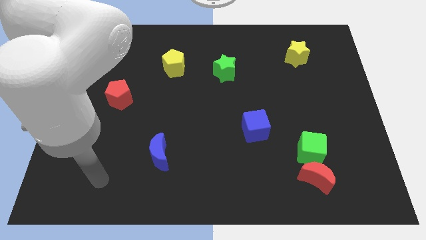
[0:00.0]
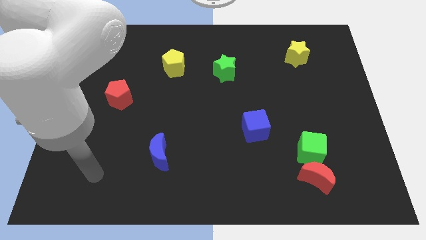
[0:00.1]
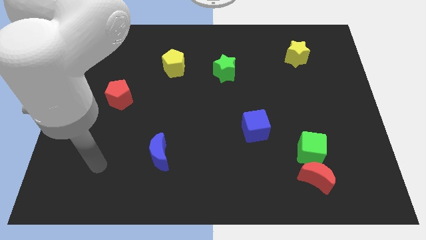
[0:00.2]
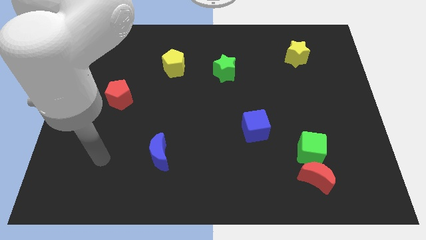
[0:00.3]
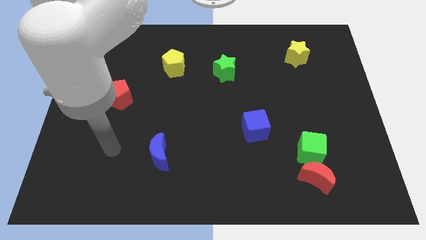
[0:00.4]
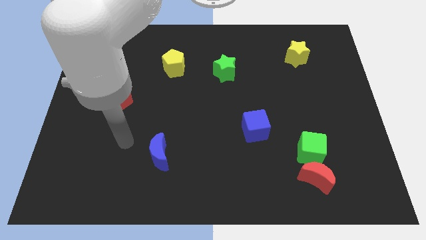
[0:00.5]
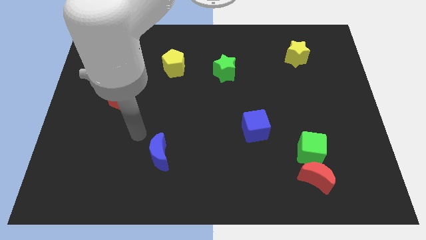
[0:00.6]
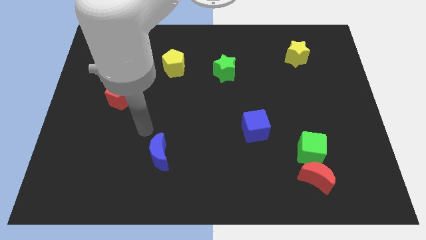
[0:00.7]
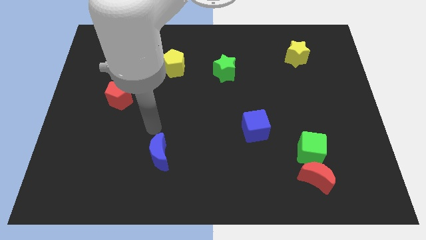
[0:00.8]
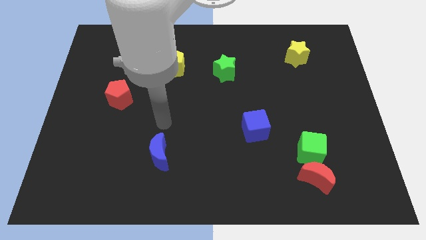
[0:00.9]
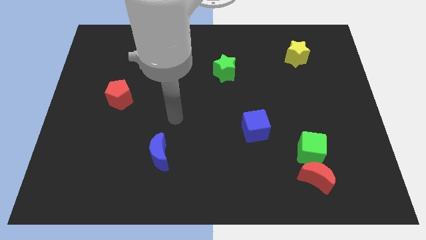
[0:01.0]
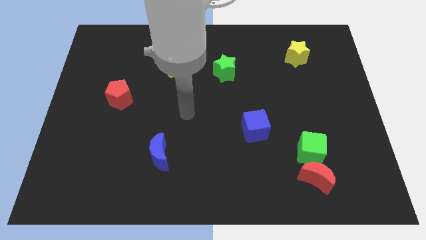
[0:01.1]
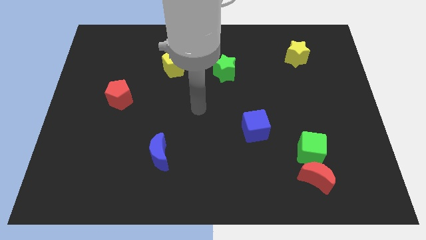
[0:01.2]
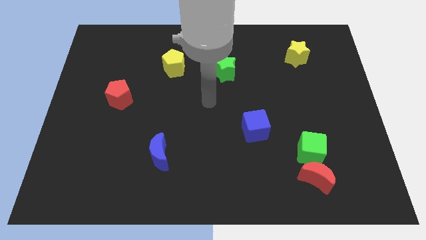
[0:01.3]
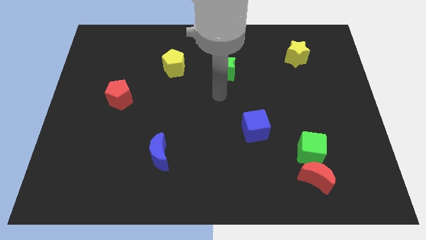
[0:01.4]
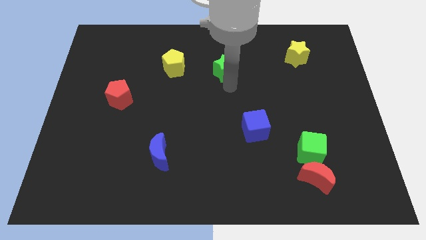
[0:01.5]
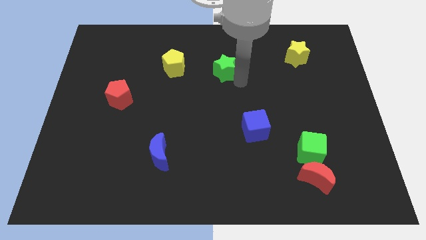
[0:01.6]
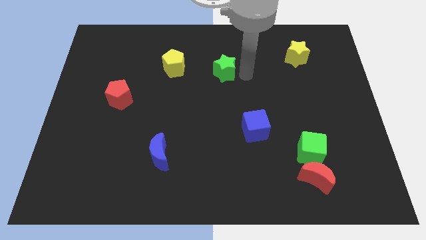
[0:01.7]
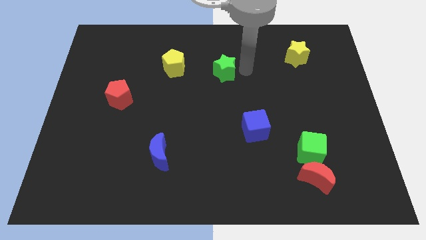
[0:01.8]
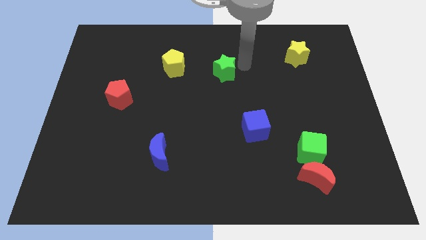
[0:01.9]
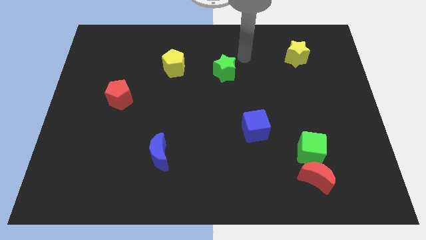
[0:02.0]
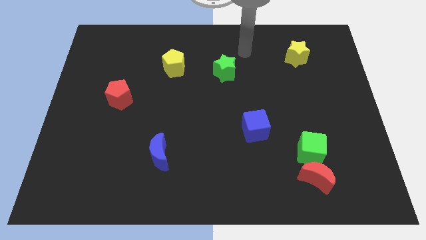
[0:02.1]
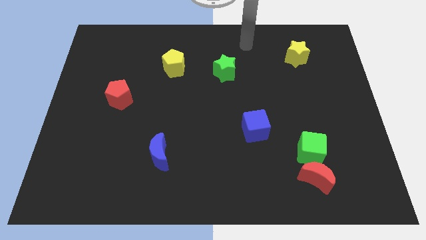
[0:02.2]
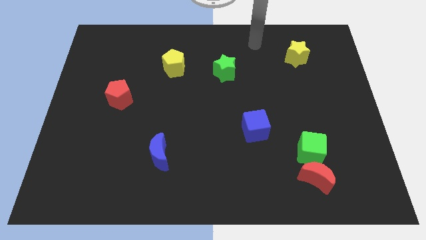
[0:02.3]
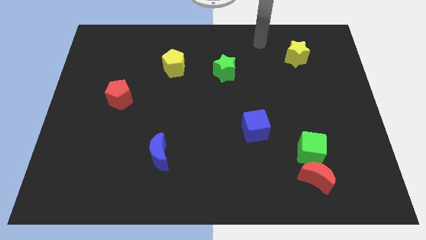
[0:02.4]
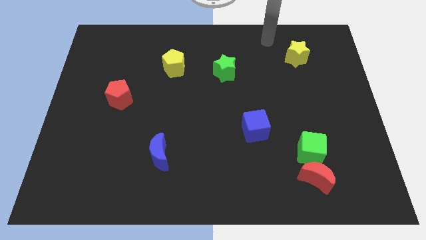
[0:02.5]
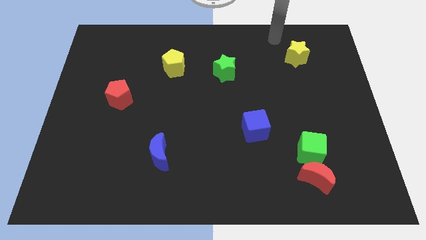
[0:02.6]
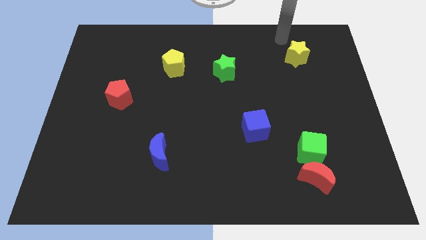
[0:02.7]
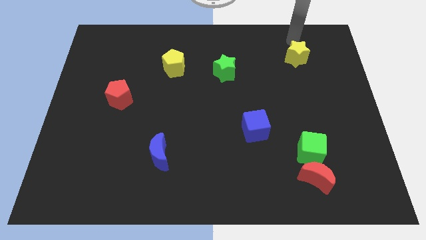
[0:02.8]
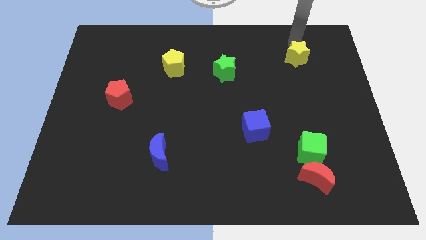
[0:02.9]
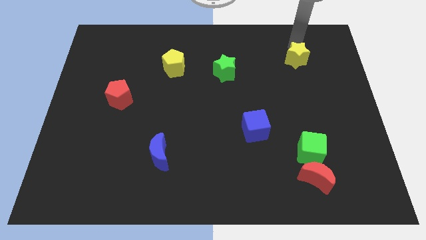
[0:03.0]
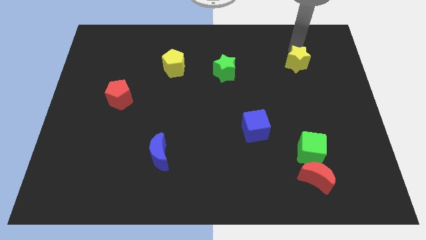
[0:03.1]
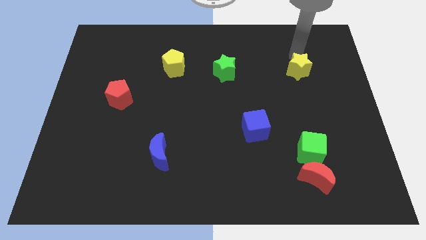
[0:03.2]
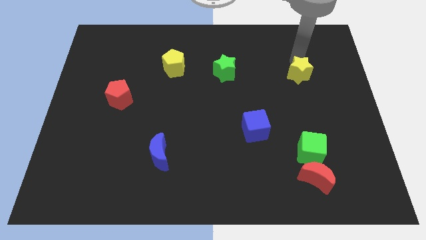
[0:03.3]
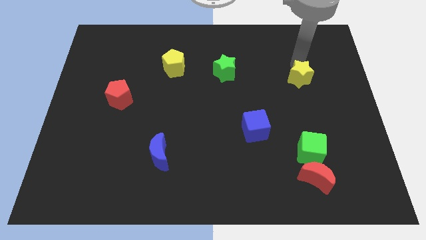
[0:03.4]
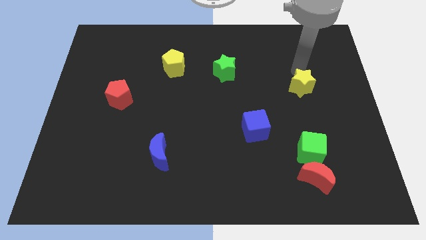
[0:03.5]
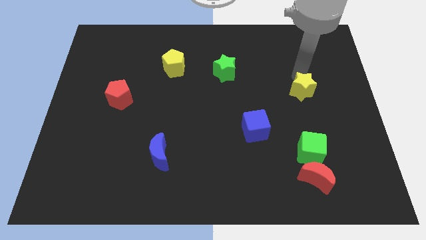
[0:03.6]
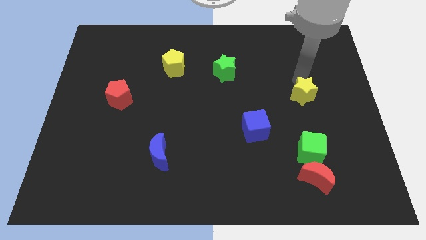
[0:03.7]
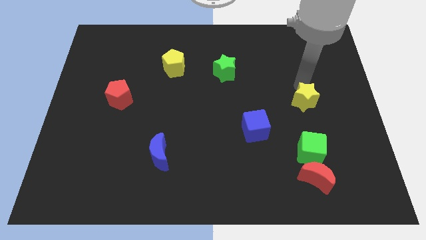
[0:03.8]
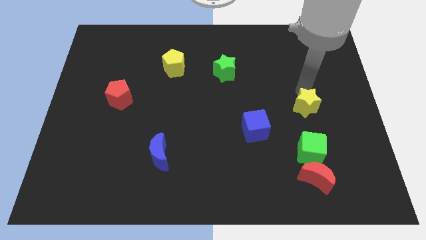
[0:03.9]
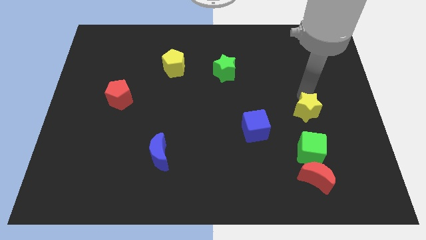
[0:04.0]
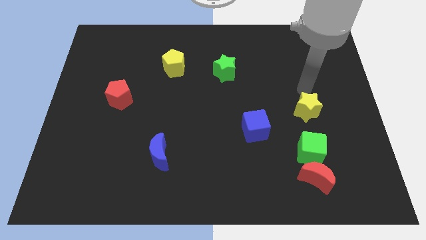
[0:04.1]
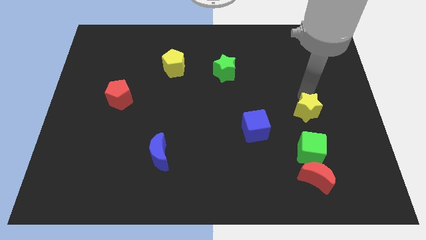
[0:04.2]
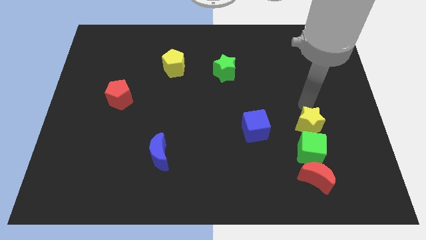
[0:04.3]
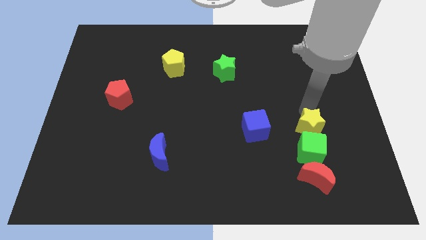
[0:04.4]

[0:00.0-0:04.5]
slide the yellow star towards the green cube

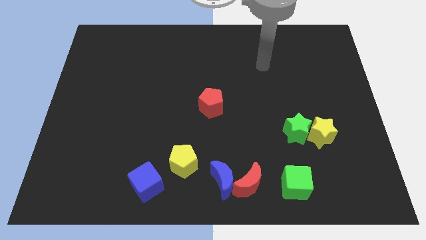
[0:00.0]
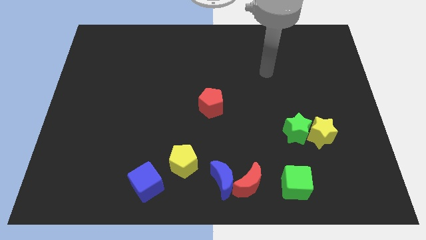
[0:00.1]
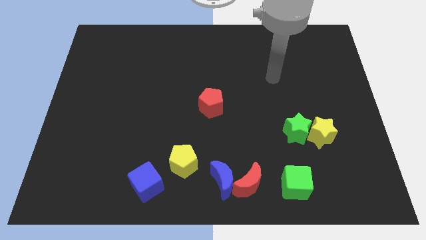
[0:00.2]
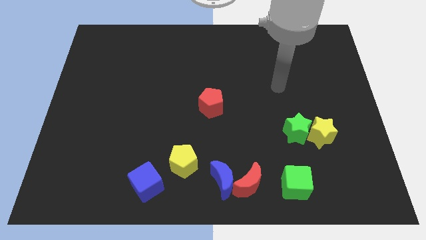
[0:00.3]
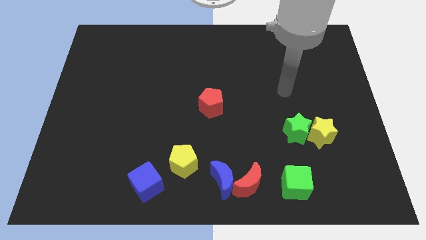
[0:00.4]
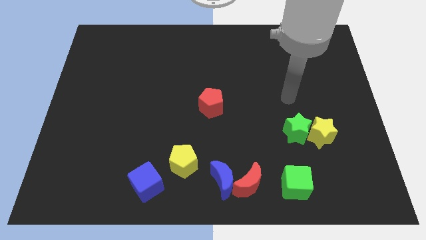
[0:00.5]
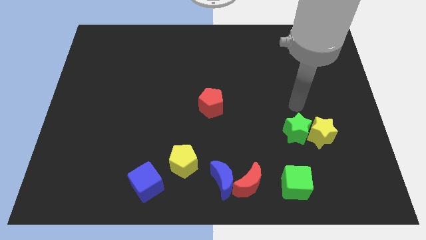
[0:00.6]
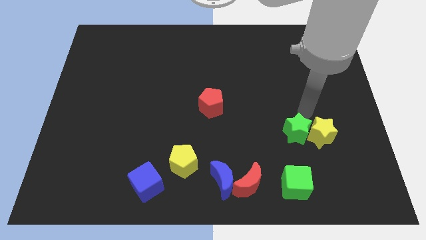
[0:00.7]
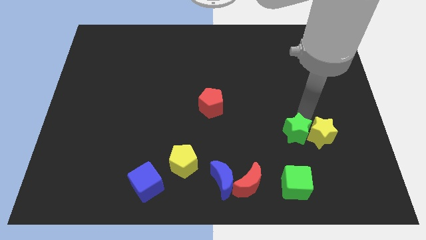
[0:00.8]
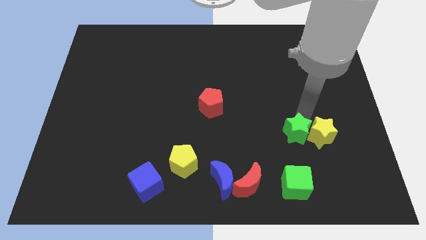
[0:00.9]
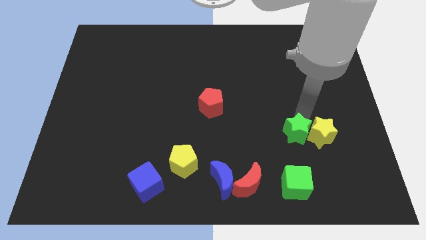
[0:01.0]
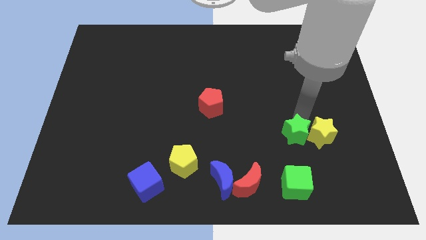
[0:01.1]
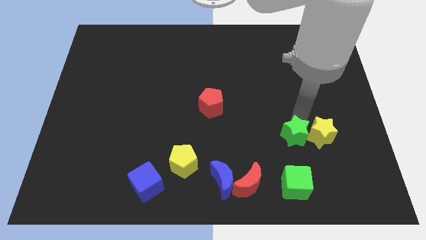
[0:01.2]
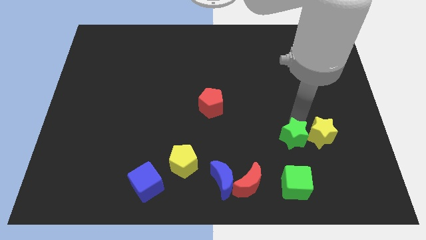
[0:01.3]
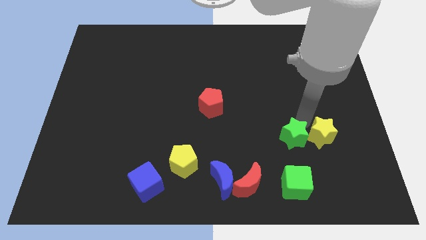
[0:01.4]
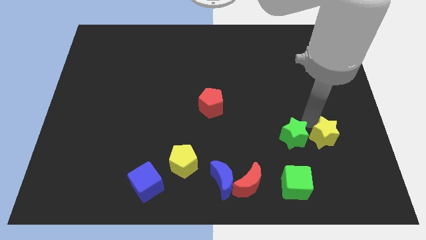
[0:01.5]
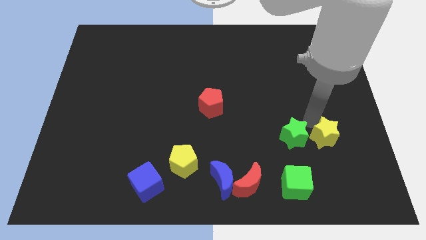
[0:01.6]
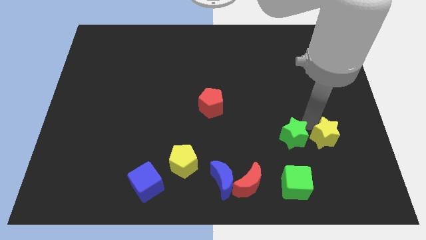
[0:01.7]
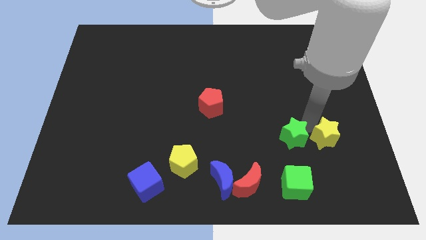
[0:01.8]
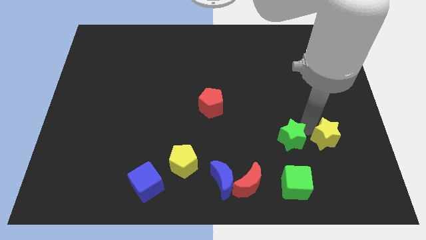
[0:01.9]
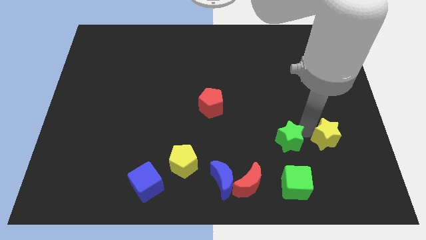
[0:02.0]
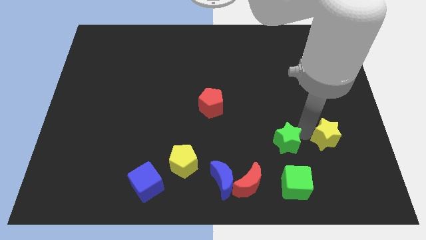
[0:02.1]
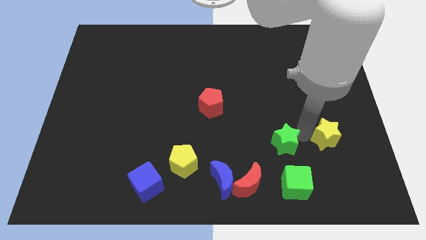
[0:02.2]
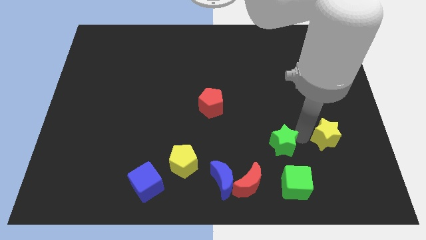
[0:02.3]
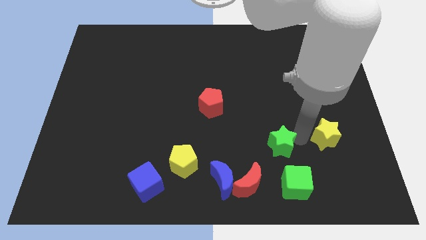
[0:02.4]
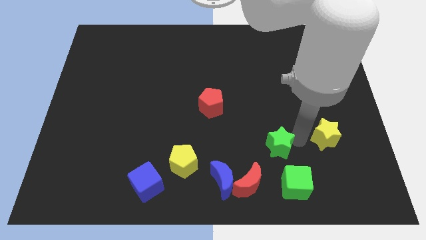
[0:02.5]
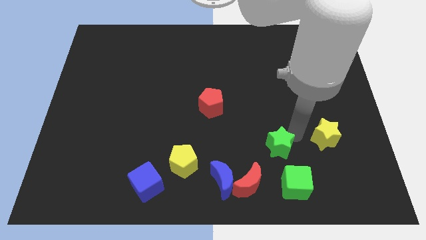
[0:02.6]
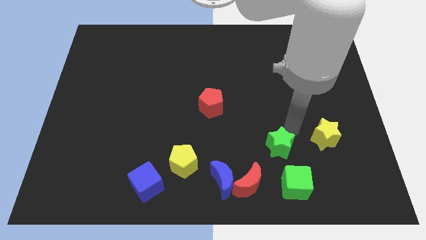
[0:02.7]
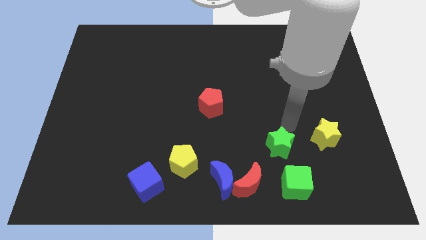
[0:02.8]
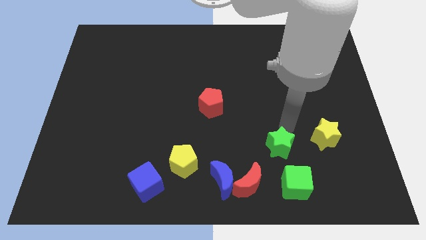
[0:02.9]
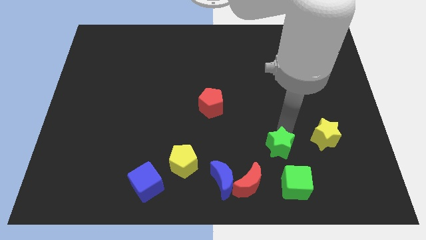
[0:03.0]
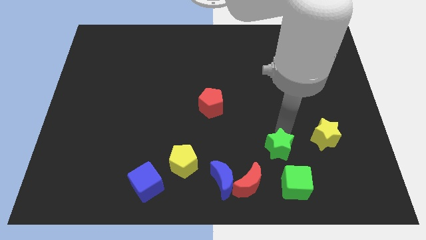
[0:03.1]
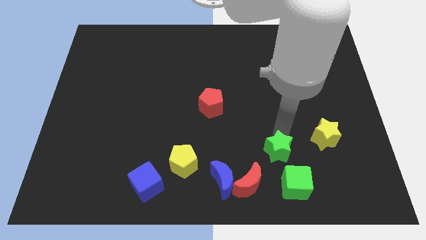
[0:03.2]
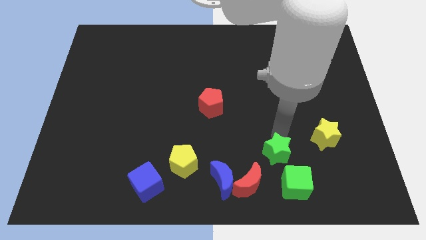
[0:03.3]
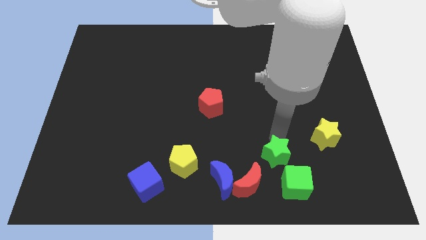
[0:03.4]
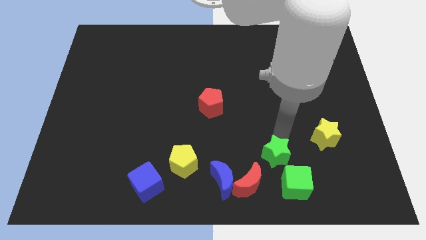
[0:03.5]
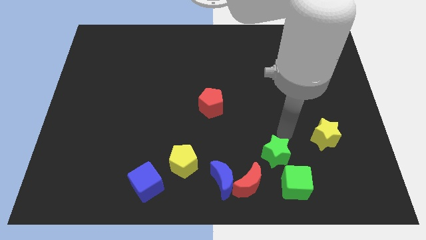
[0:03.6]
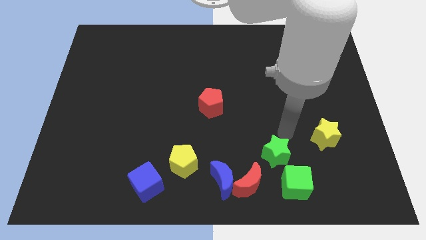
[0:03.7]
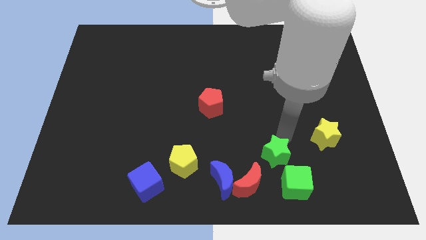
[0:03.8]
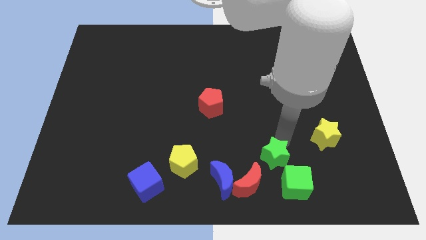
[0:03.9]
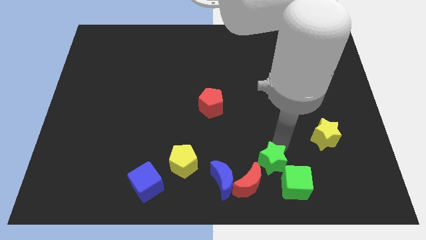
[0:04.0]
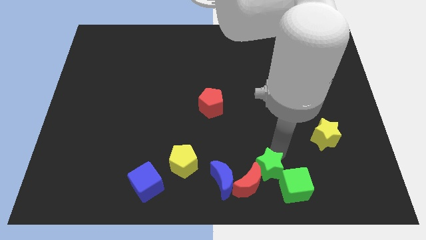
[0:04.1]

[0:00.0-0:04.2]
push the green star next to the red moon
